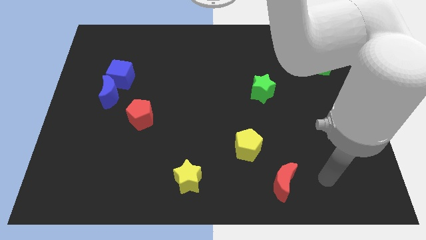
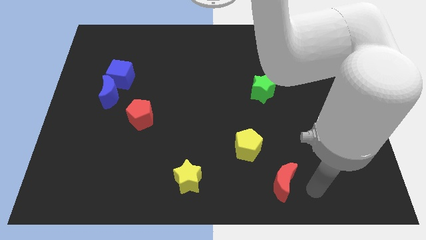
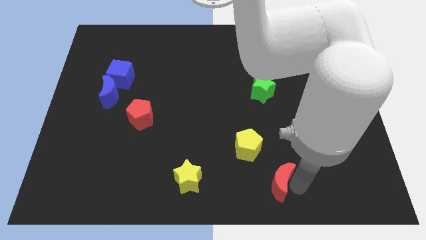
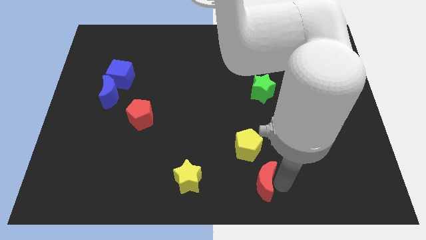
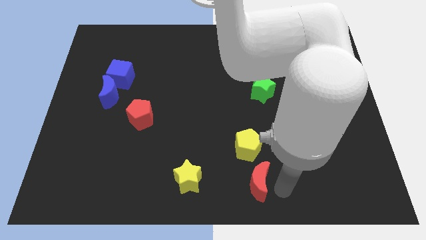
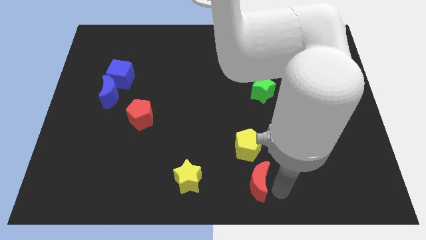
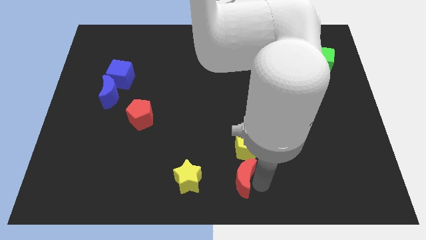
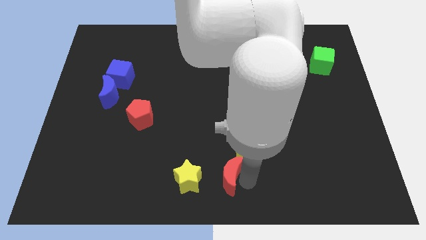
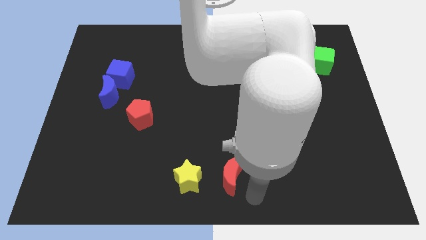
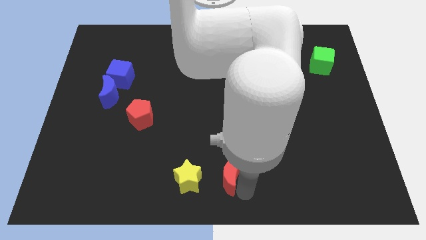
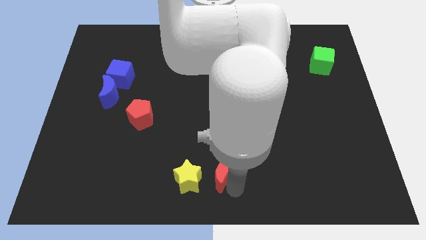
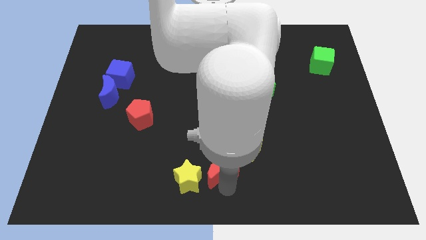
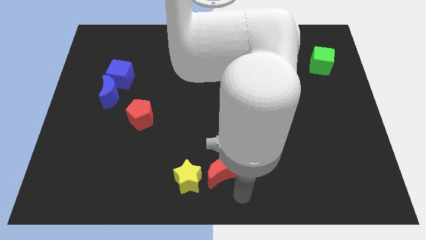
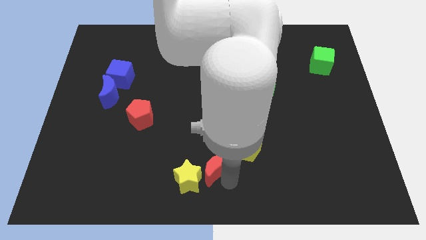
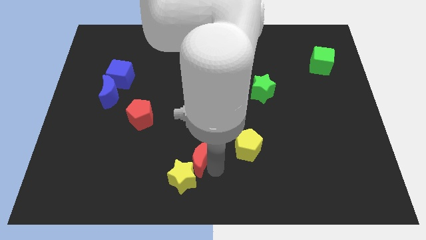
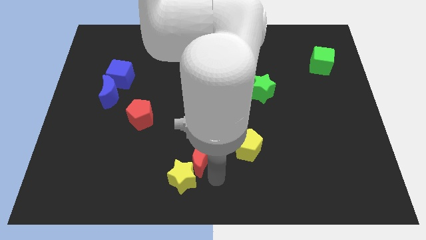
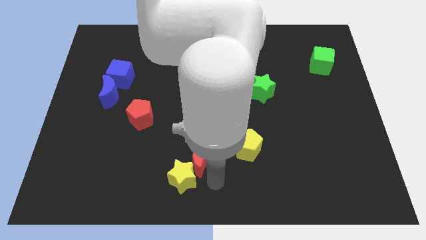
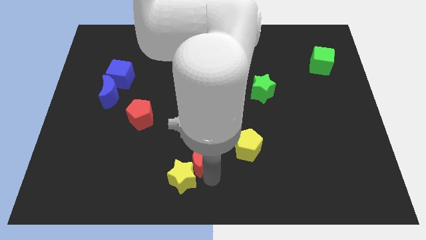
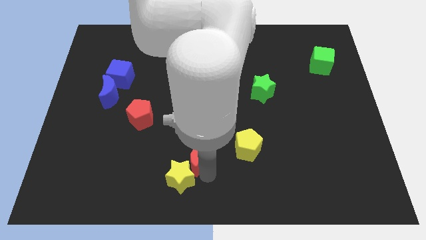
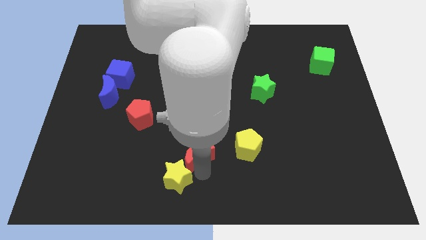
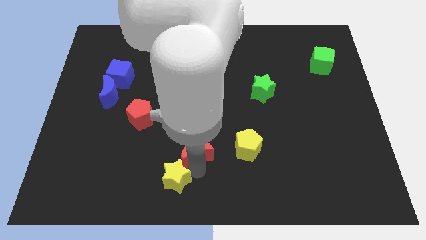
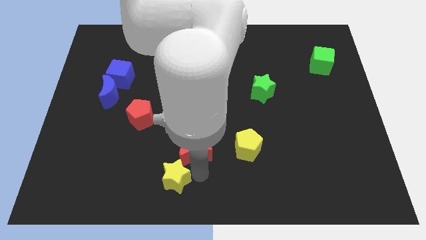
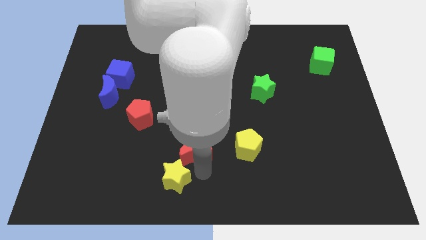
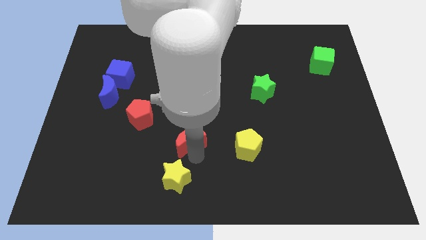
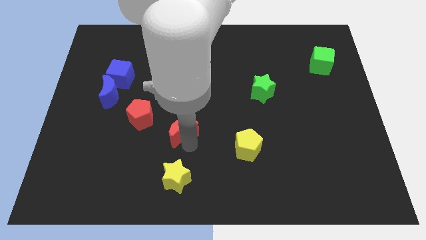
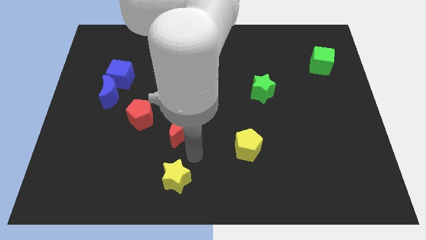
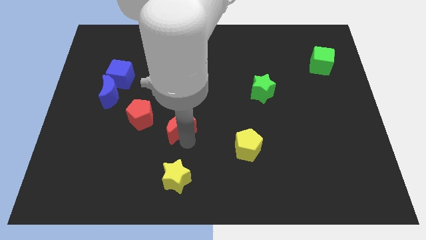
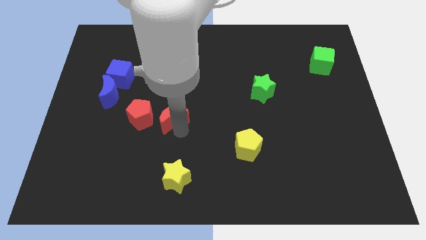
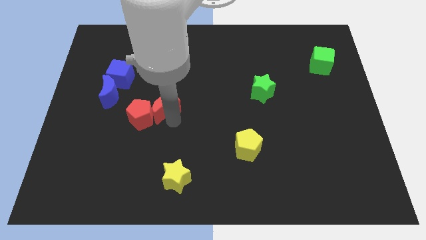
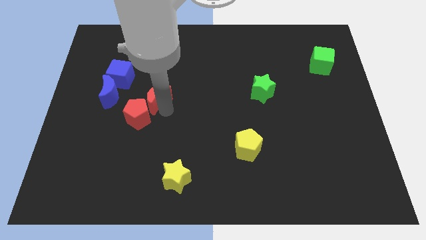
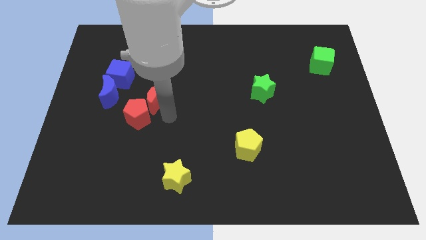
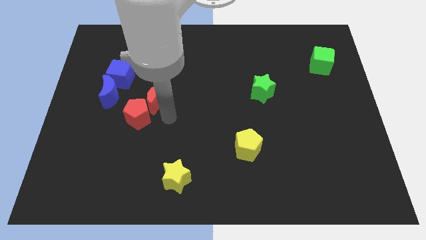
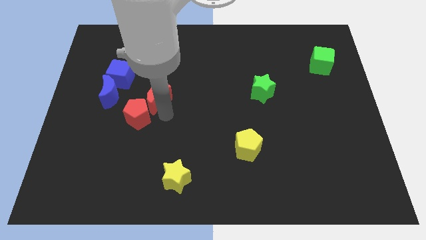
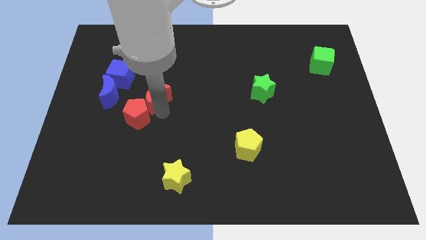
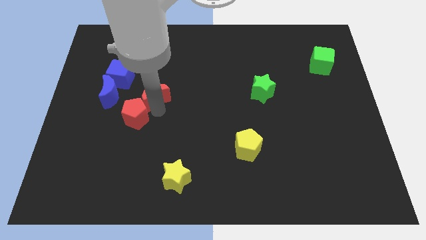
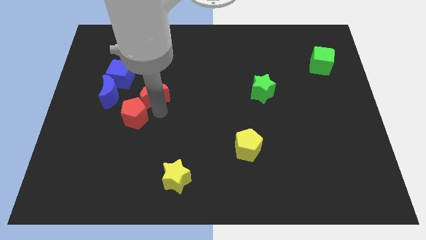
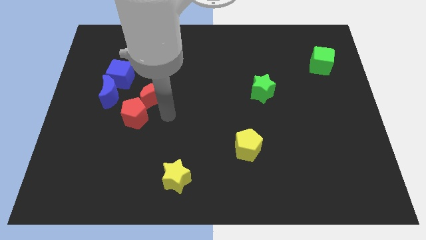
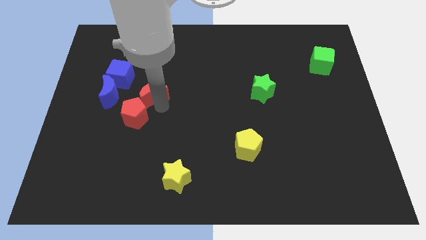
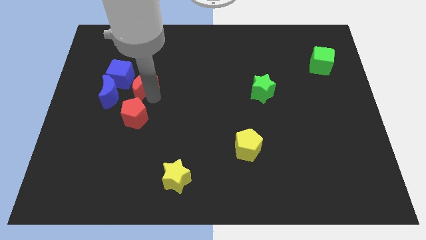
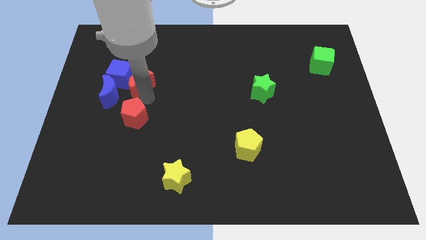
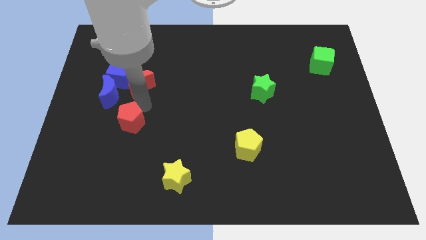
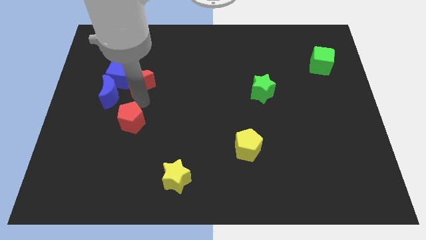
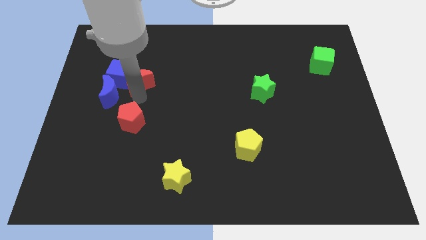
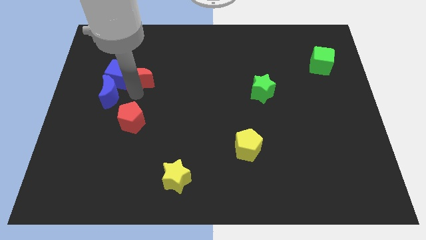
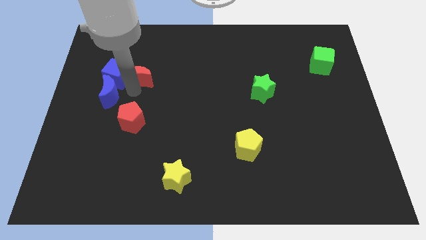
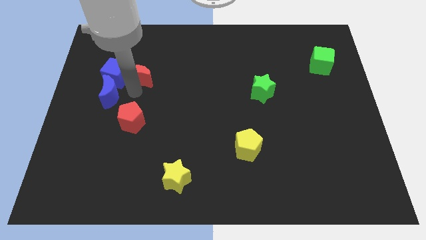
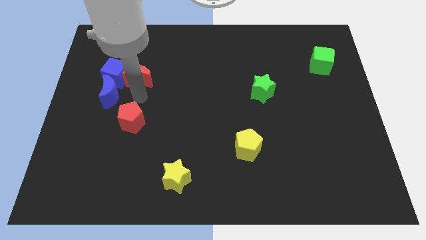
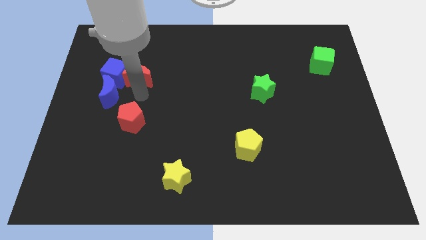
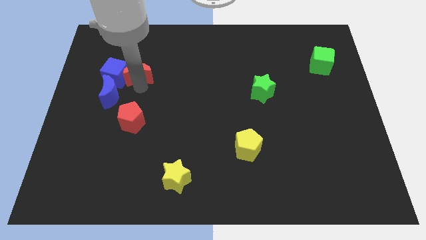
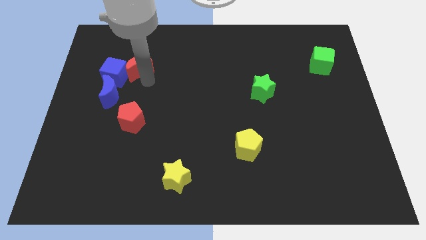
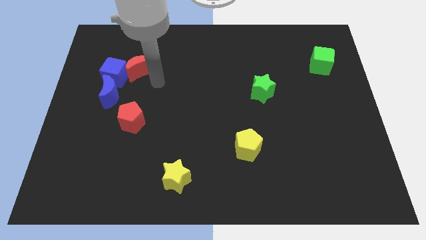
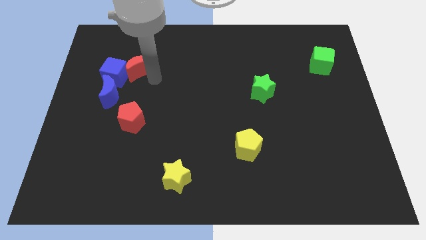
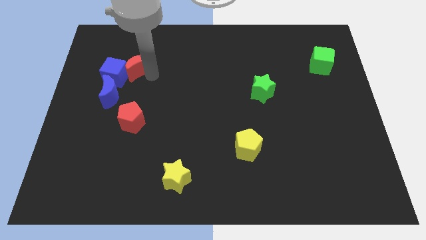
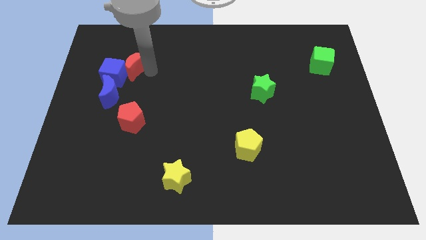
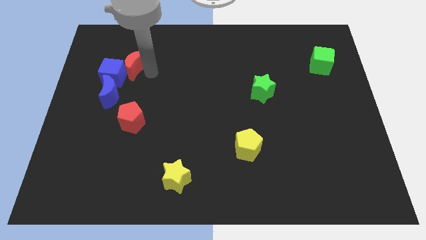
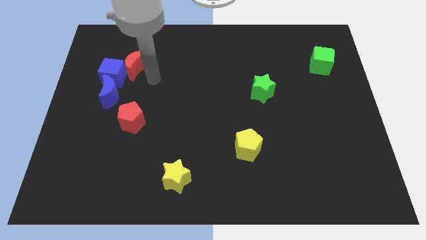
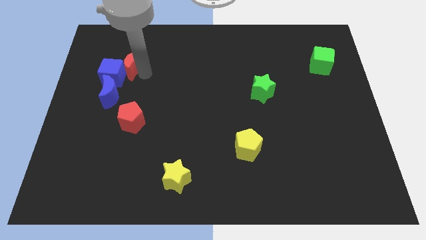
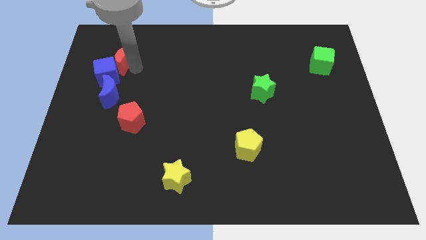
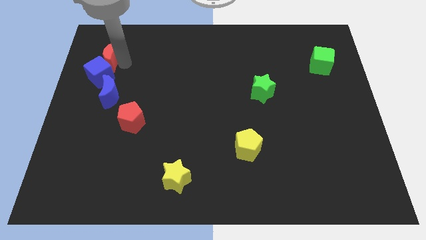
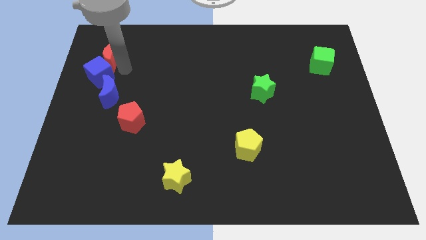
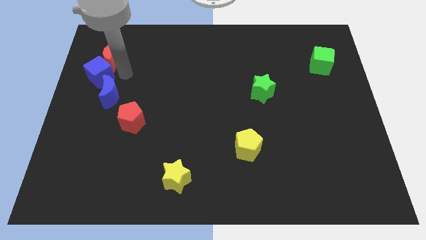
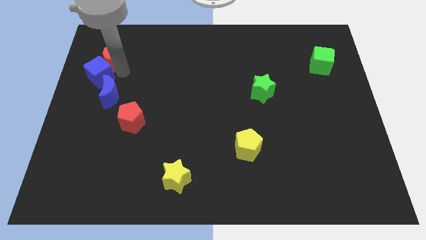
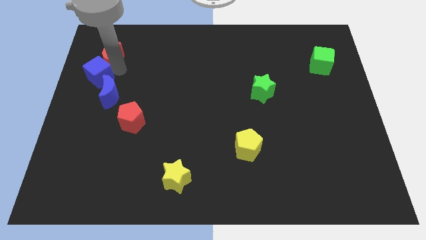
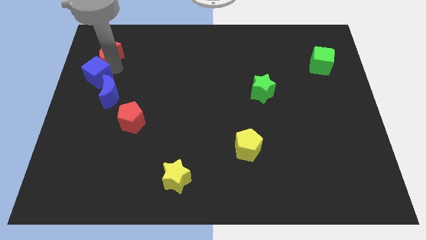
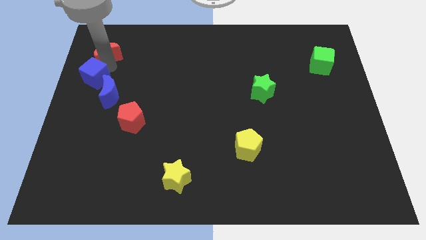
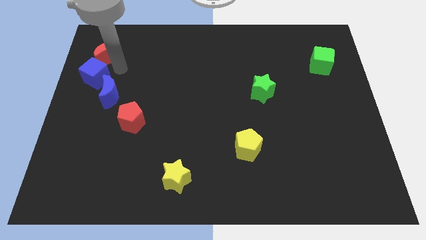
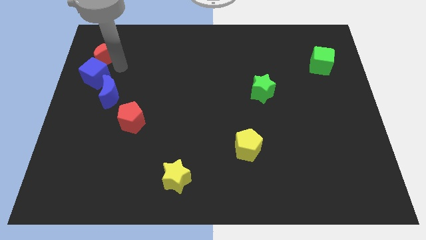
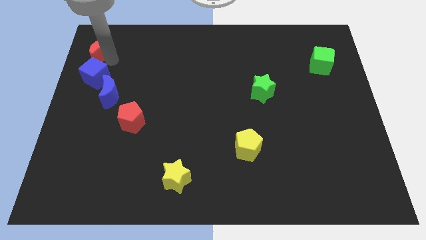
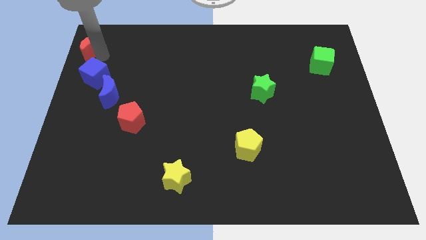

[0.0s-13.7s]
slide the red moon to the top left of the board

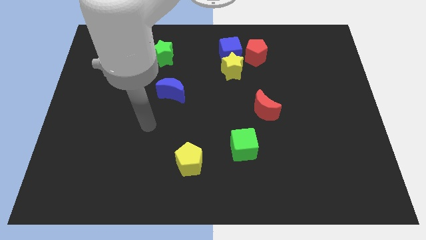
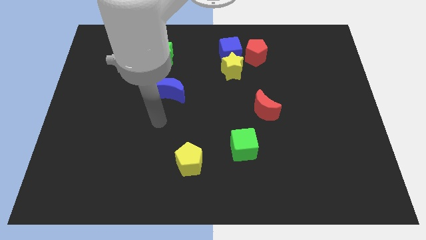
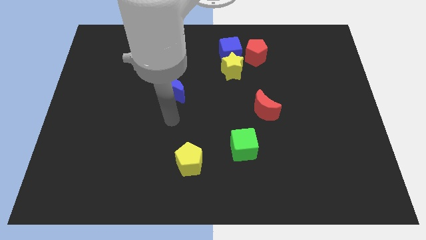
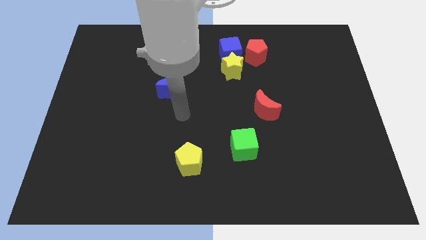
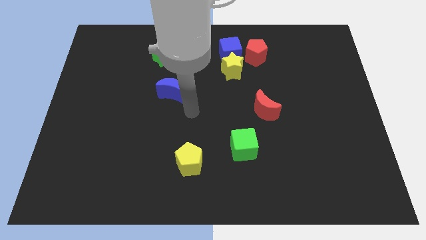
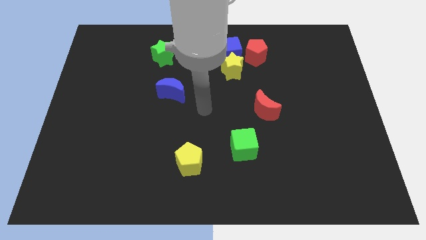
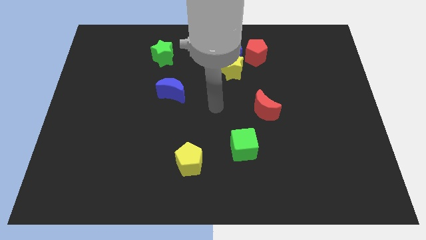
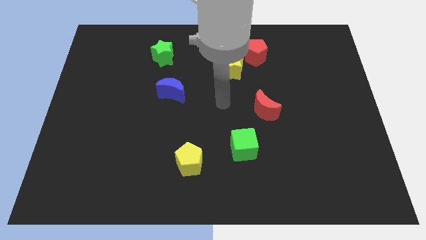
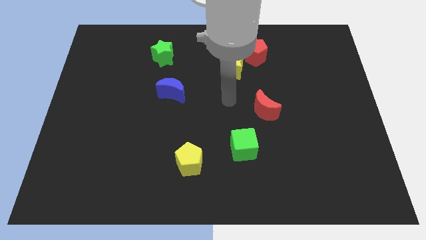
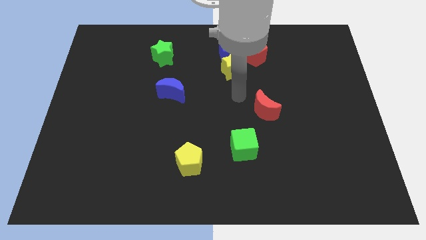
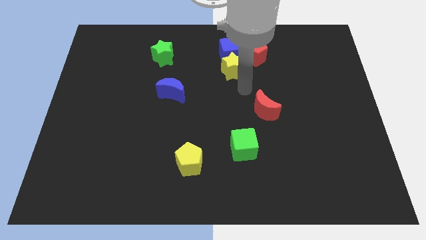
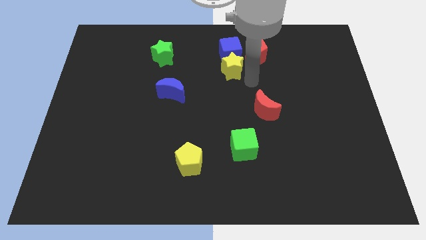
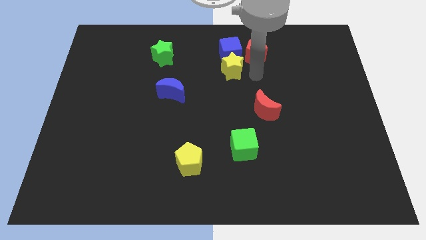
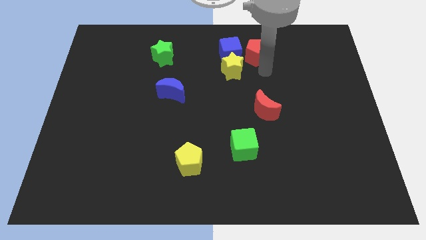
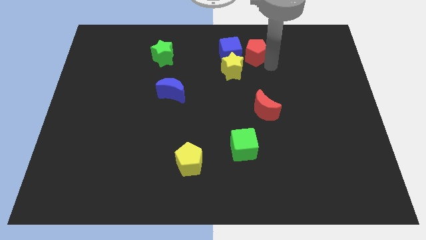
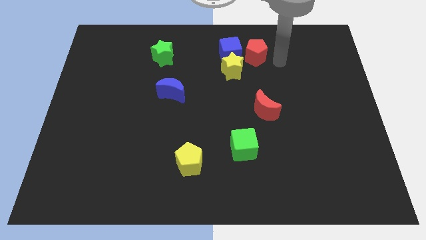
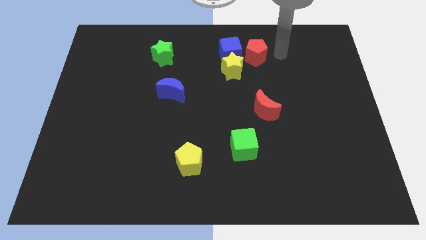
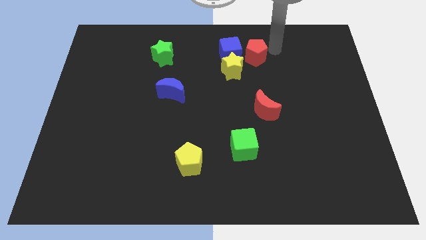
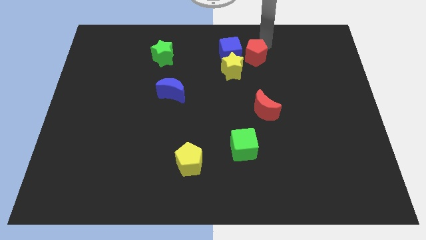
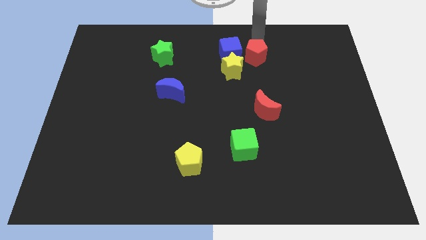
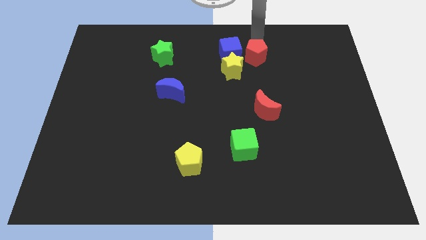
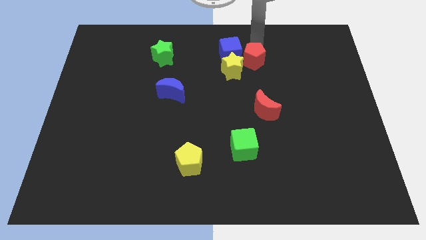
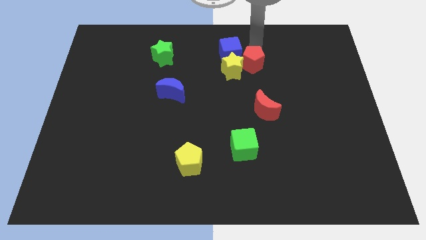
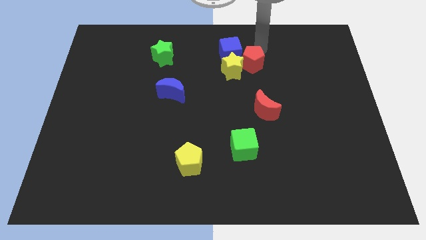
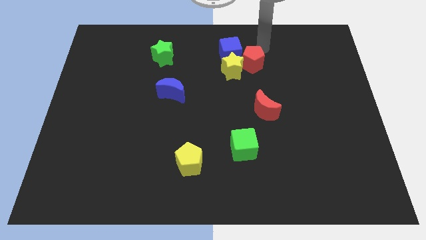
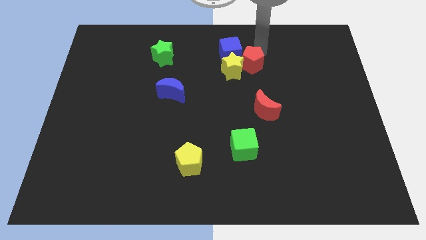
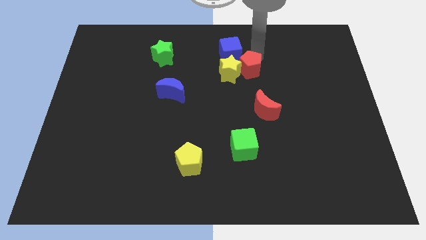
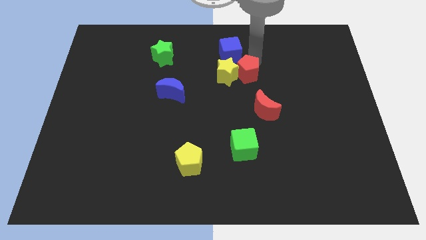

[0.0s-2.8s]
put the red pentagon to the center of the board
